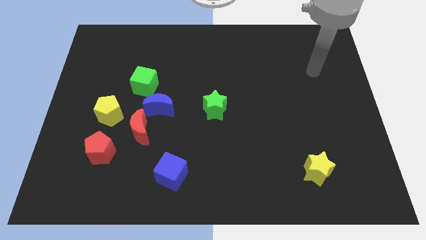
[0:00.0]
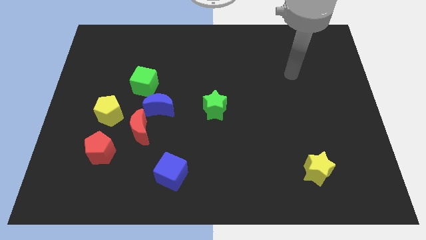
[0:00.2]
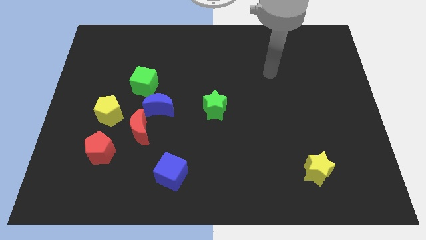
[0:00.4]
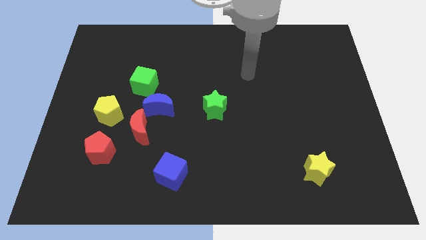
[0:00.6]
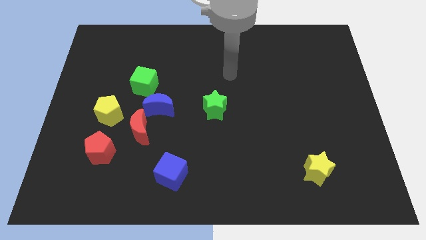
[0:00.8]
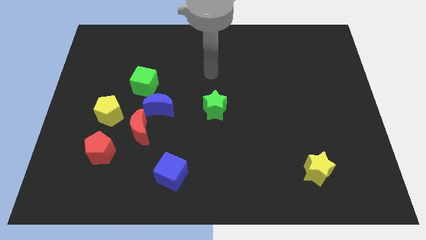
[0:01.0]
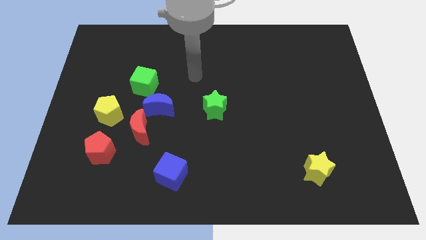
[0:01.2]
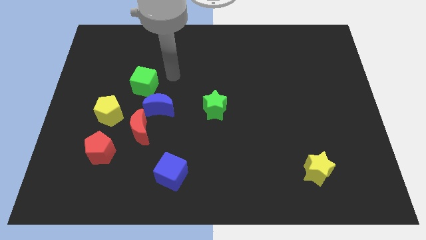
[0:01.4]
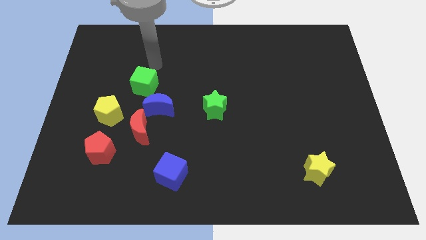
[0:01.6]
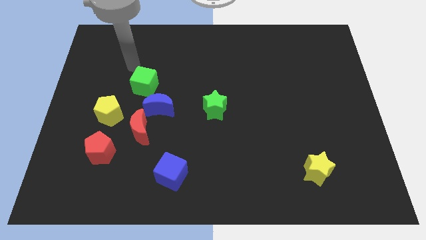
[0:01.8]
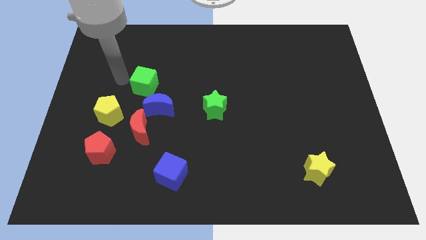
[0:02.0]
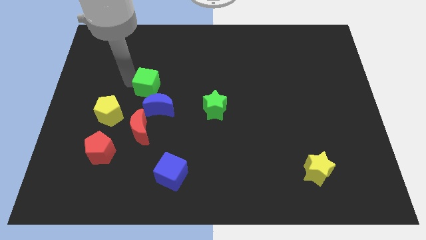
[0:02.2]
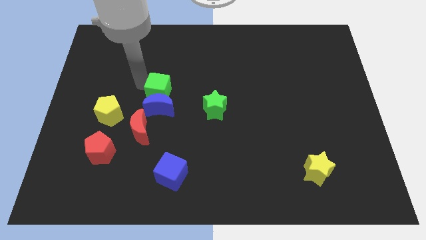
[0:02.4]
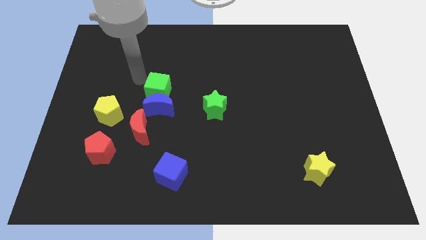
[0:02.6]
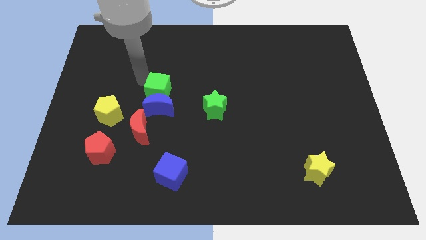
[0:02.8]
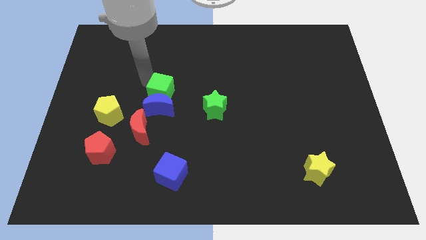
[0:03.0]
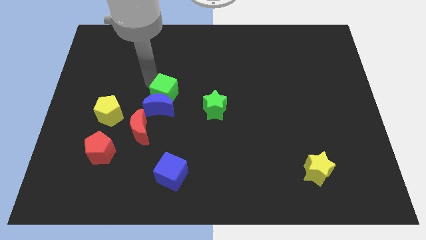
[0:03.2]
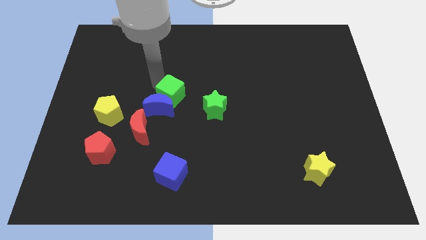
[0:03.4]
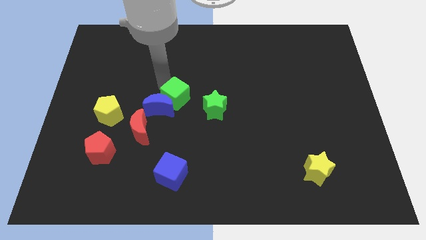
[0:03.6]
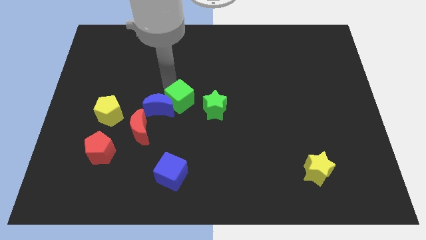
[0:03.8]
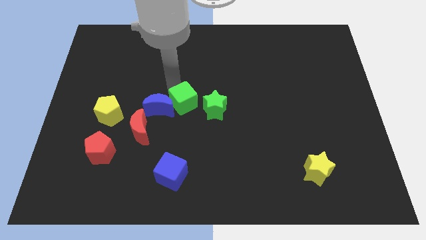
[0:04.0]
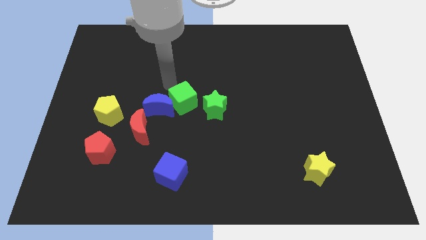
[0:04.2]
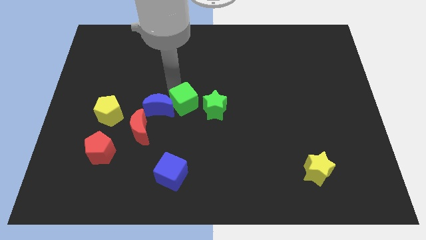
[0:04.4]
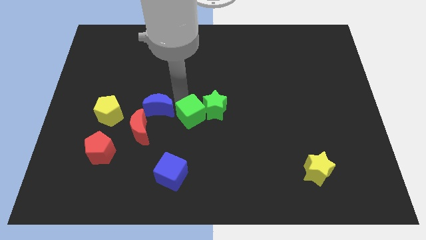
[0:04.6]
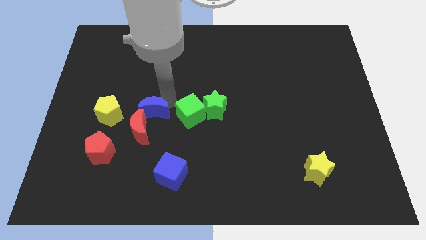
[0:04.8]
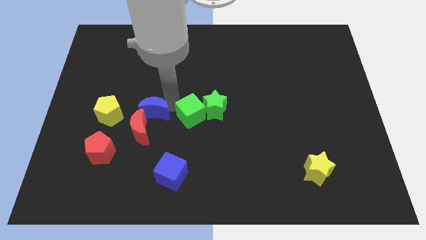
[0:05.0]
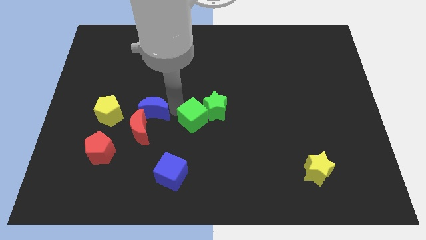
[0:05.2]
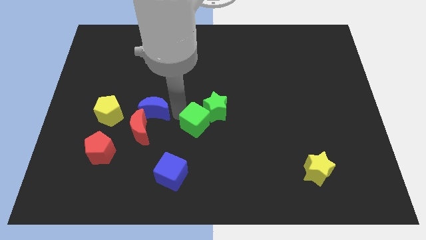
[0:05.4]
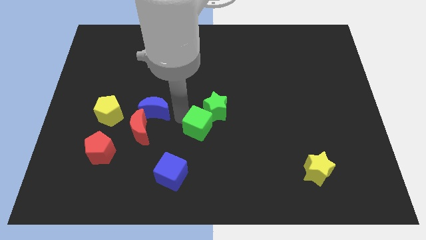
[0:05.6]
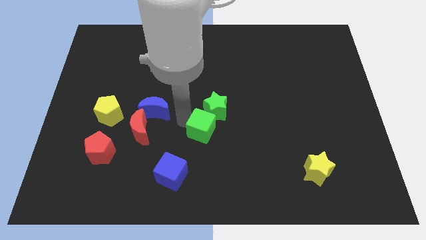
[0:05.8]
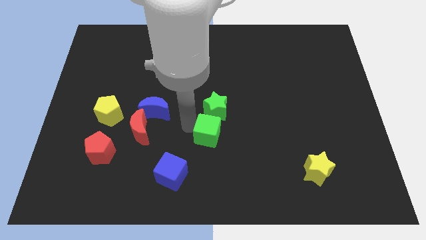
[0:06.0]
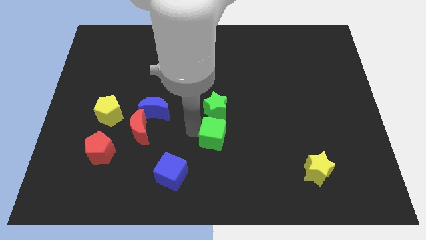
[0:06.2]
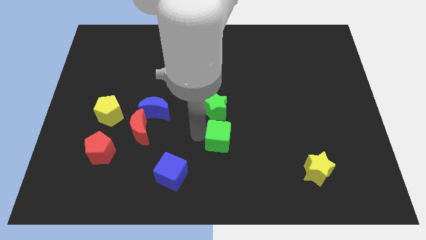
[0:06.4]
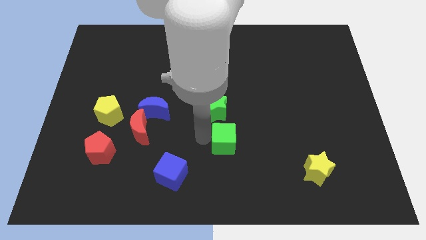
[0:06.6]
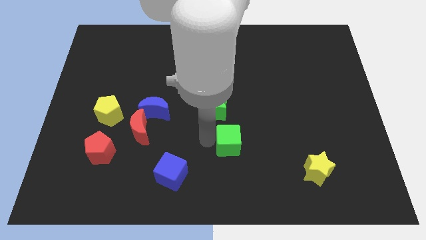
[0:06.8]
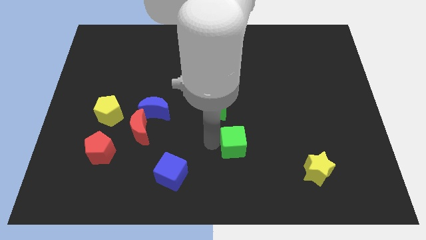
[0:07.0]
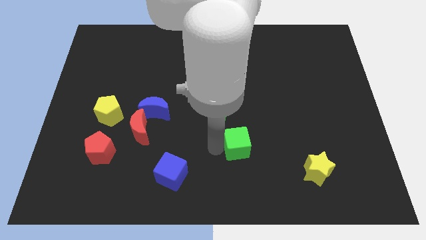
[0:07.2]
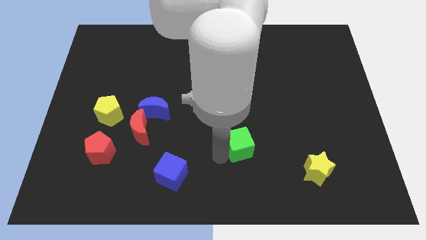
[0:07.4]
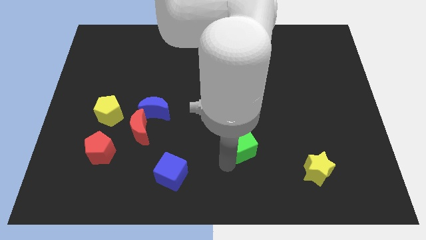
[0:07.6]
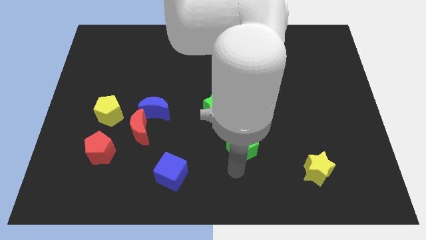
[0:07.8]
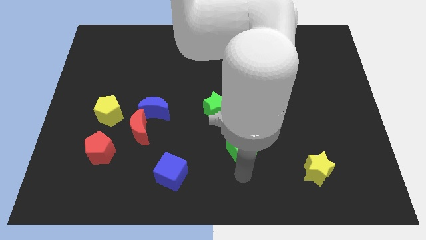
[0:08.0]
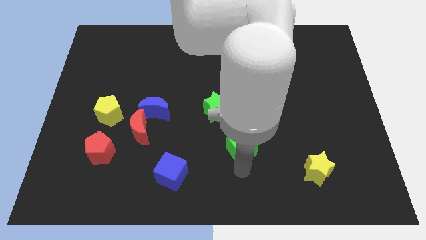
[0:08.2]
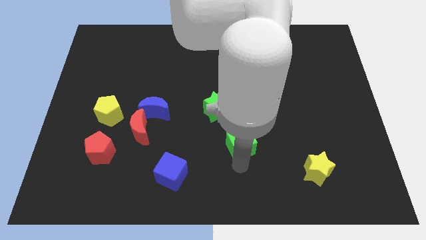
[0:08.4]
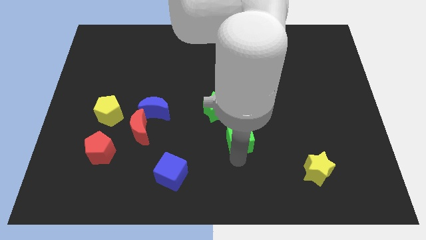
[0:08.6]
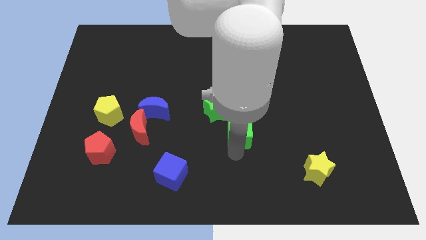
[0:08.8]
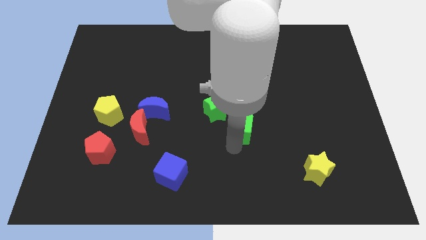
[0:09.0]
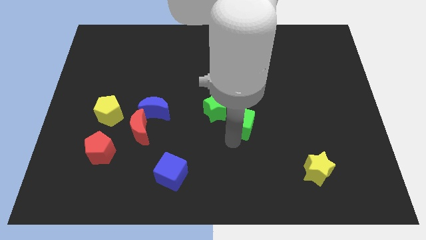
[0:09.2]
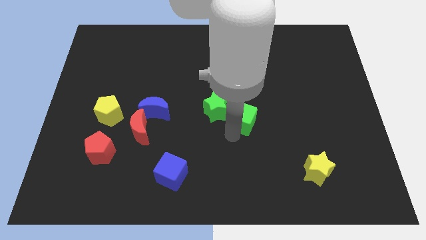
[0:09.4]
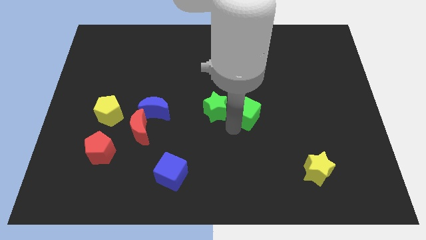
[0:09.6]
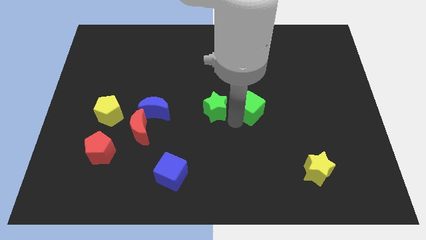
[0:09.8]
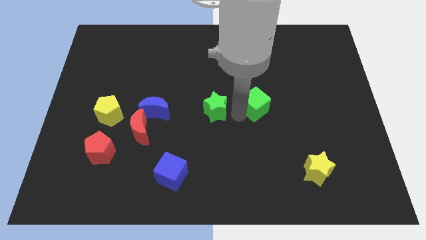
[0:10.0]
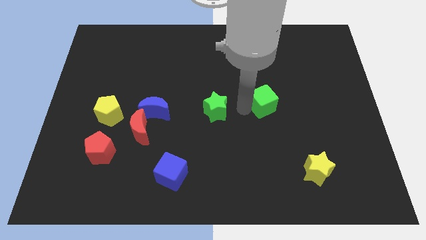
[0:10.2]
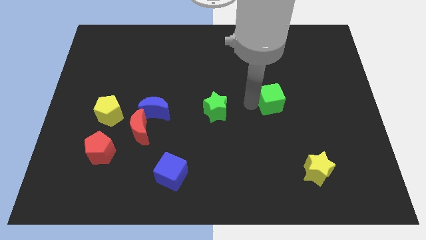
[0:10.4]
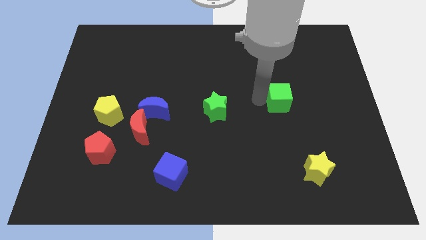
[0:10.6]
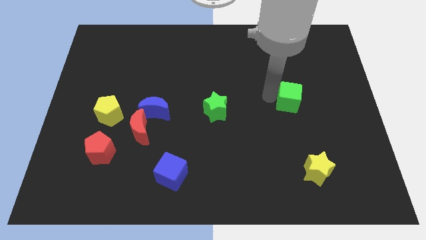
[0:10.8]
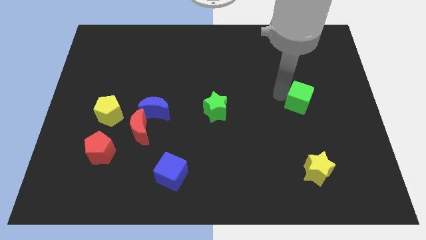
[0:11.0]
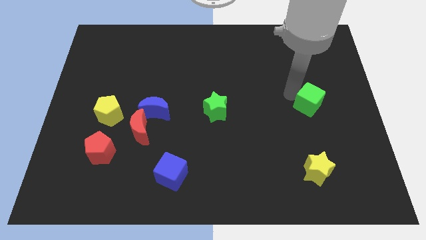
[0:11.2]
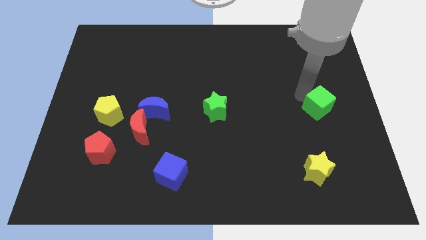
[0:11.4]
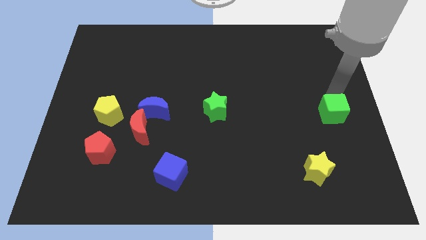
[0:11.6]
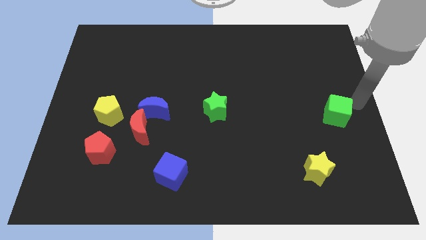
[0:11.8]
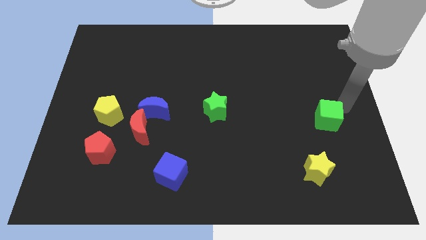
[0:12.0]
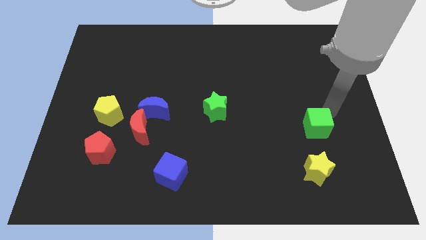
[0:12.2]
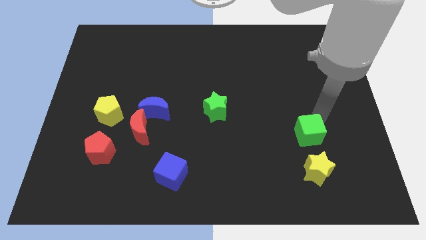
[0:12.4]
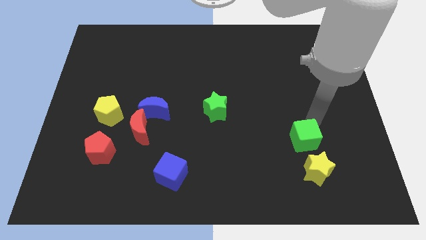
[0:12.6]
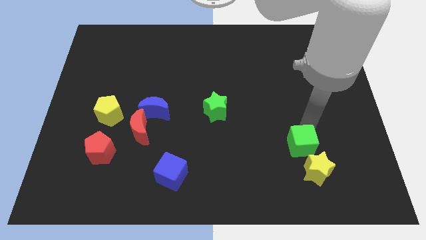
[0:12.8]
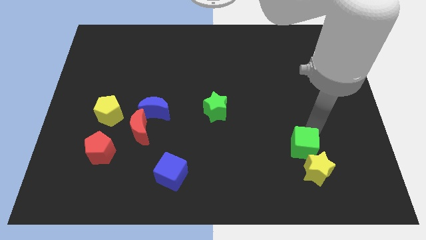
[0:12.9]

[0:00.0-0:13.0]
slide the green cube towards the yellow star
